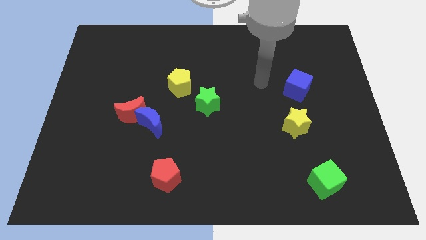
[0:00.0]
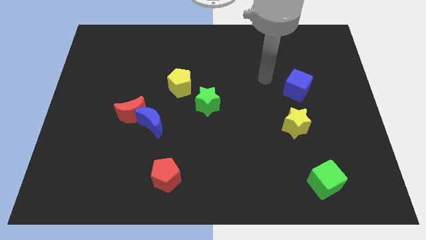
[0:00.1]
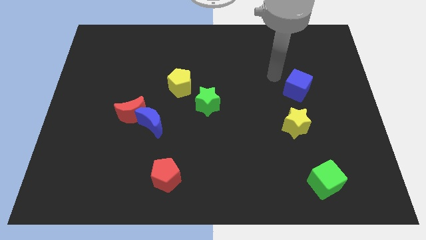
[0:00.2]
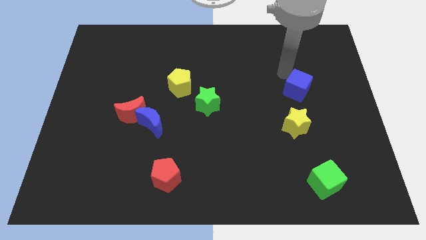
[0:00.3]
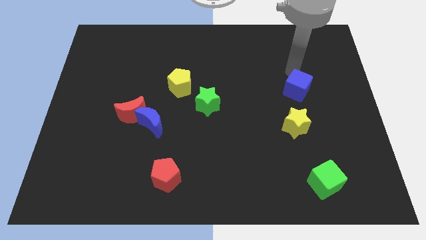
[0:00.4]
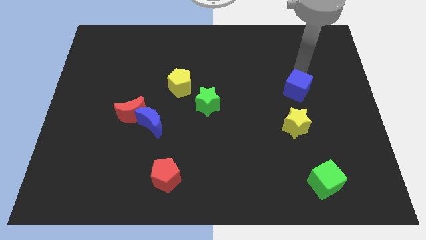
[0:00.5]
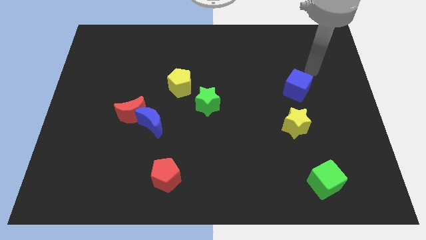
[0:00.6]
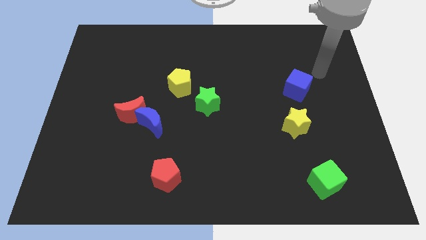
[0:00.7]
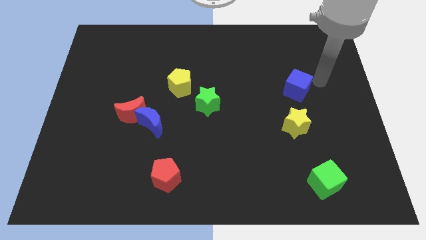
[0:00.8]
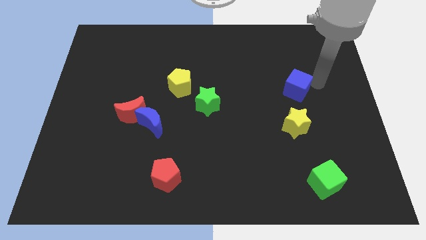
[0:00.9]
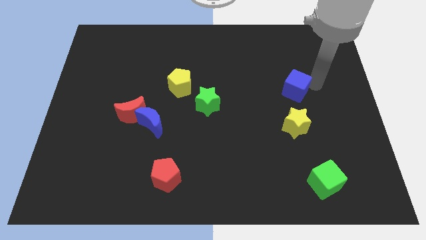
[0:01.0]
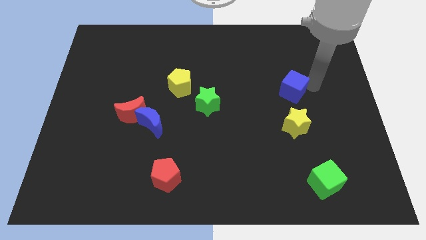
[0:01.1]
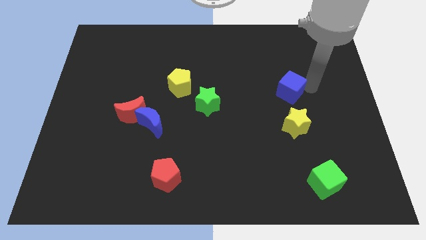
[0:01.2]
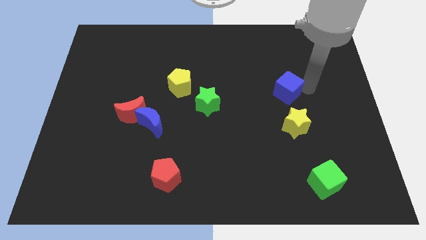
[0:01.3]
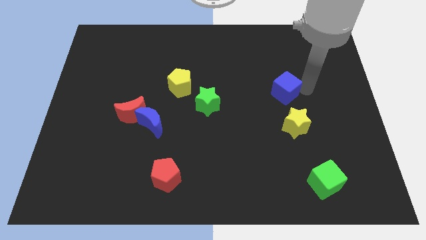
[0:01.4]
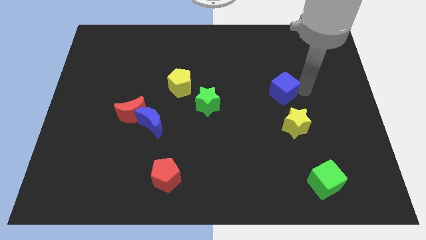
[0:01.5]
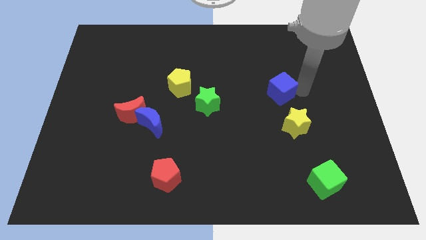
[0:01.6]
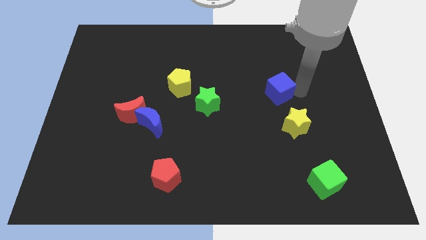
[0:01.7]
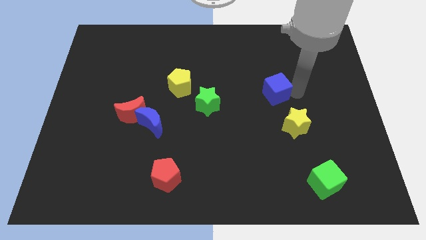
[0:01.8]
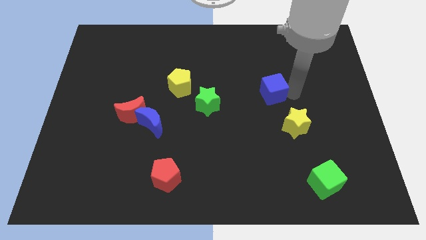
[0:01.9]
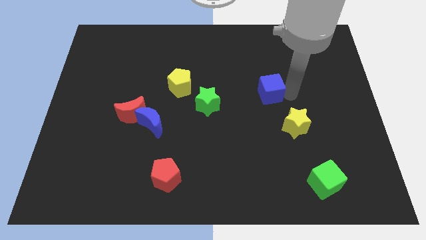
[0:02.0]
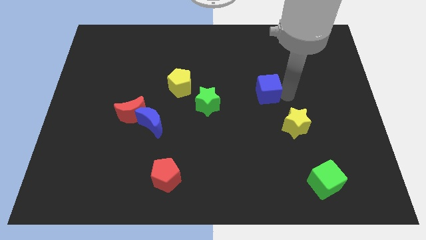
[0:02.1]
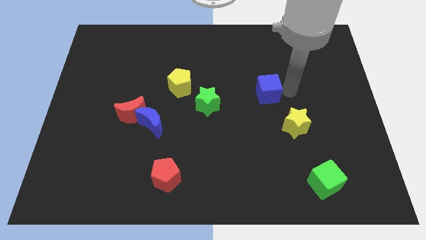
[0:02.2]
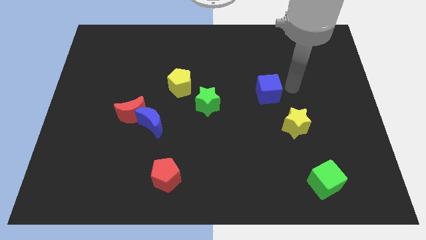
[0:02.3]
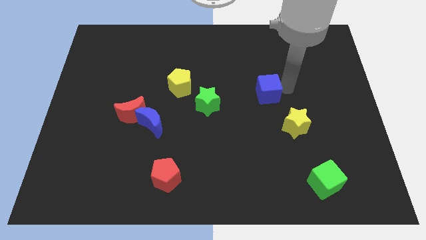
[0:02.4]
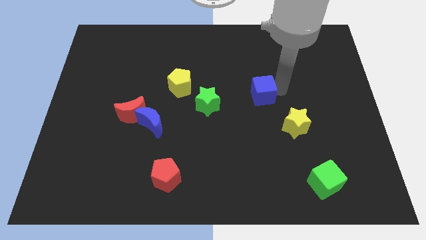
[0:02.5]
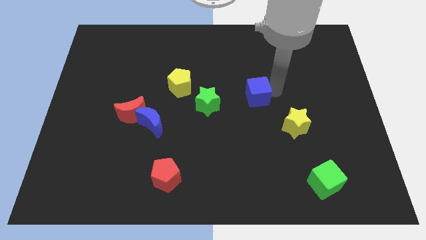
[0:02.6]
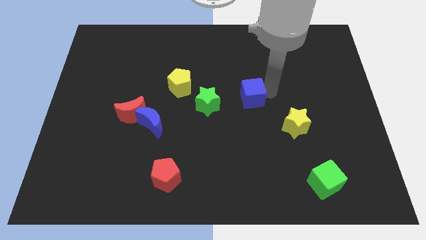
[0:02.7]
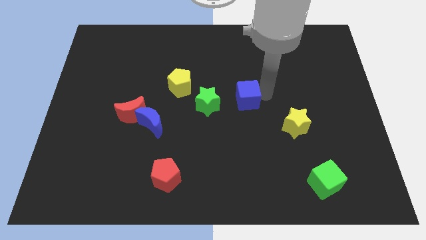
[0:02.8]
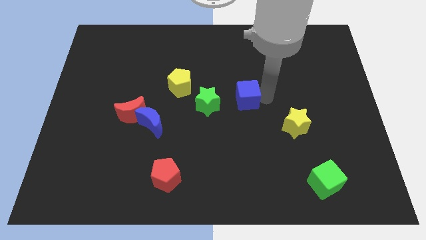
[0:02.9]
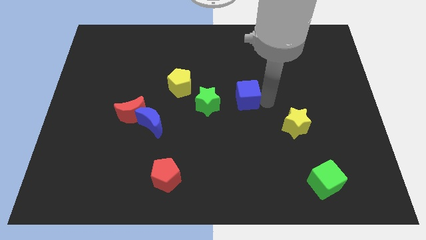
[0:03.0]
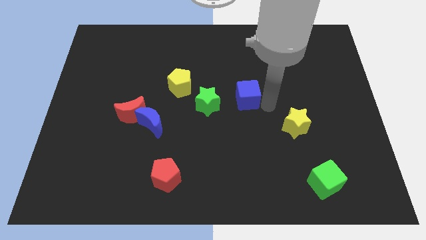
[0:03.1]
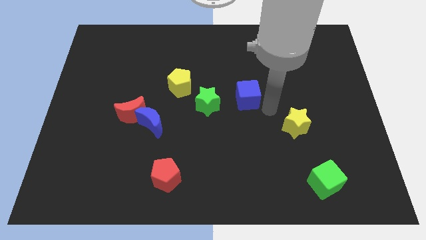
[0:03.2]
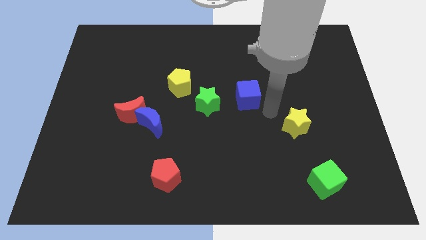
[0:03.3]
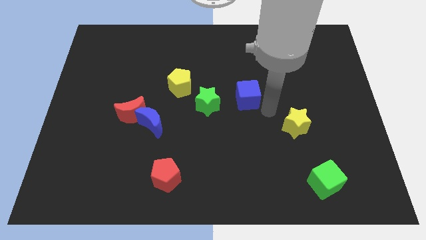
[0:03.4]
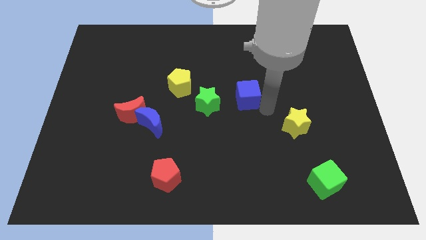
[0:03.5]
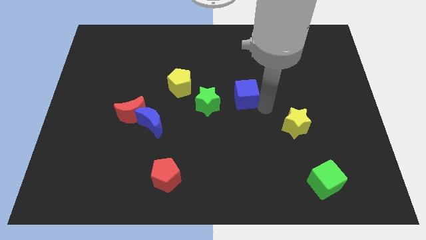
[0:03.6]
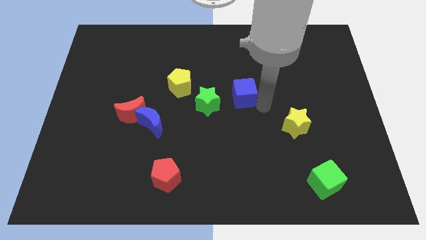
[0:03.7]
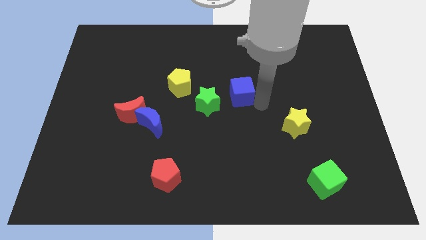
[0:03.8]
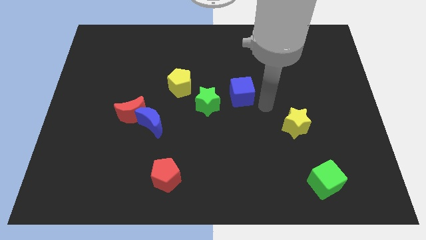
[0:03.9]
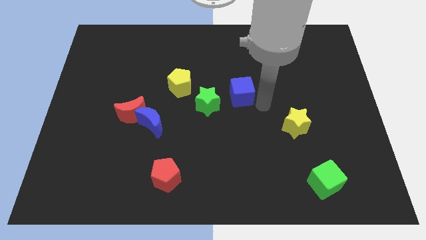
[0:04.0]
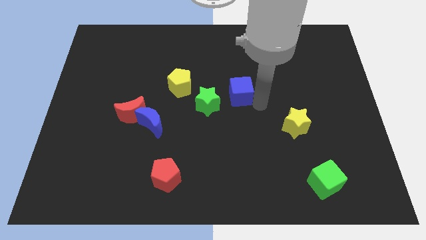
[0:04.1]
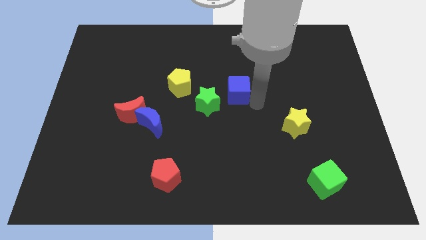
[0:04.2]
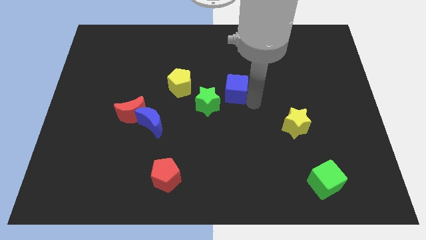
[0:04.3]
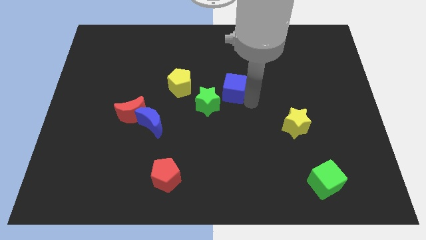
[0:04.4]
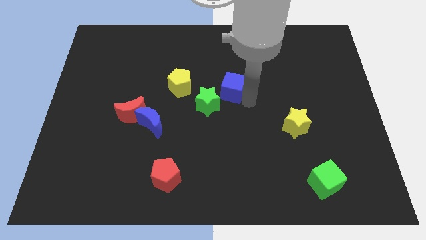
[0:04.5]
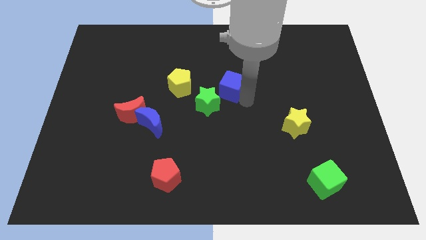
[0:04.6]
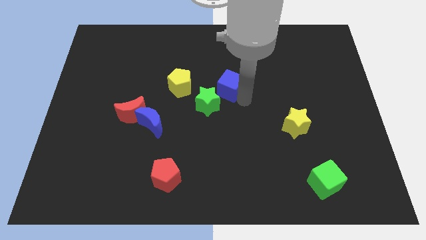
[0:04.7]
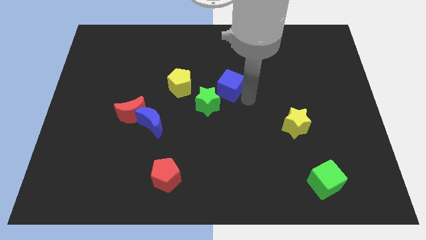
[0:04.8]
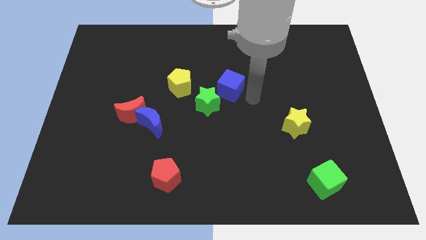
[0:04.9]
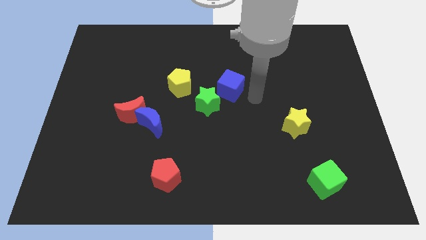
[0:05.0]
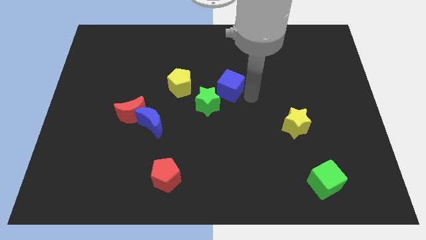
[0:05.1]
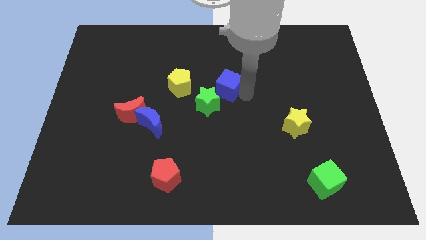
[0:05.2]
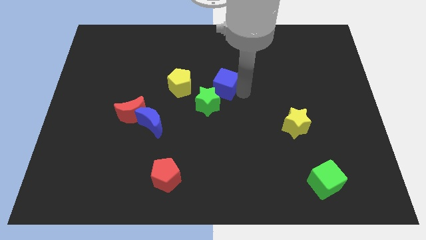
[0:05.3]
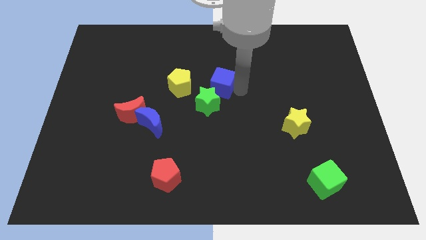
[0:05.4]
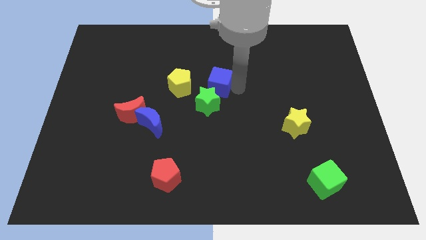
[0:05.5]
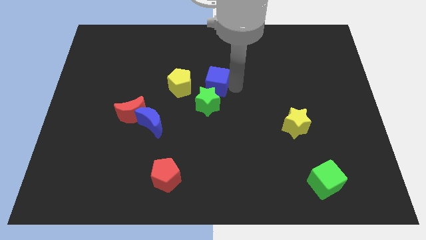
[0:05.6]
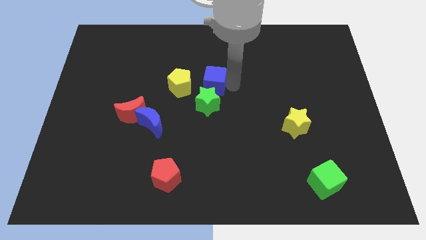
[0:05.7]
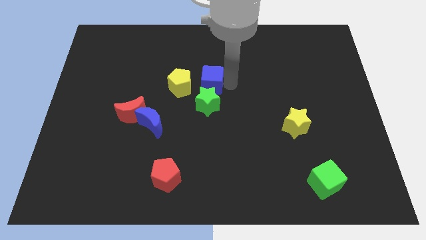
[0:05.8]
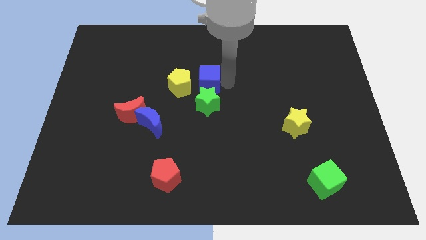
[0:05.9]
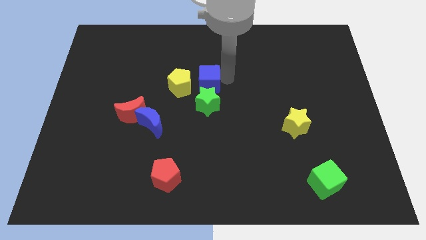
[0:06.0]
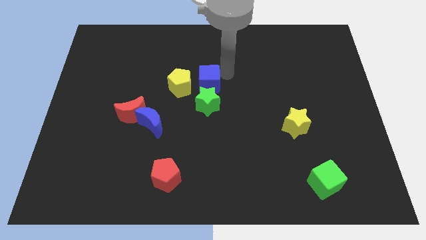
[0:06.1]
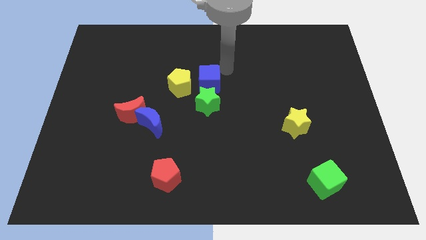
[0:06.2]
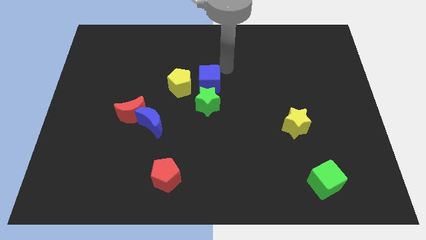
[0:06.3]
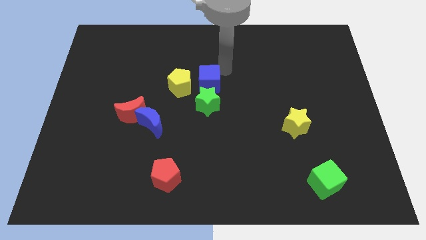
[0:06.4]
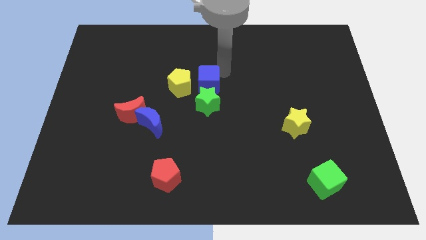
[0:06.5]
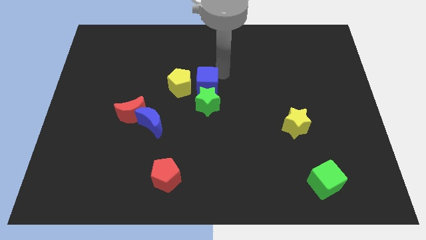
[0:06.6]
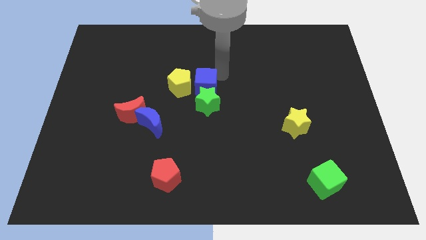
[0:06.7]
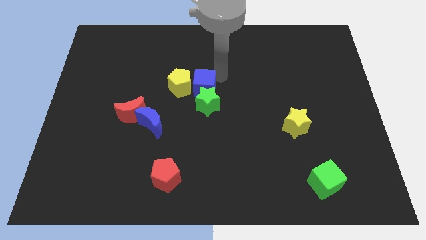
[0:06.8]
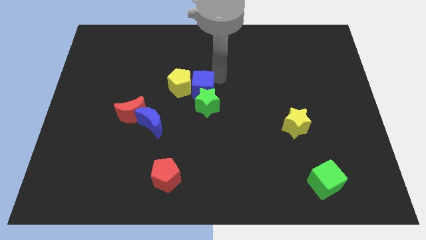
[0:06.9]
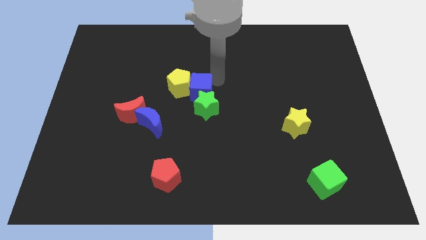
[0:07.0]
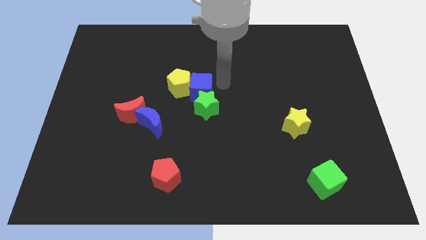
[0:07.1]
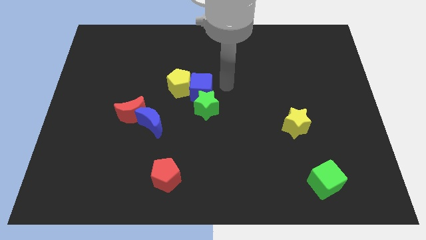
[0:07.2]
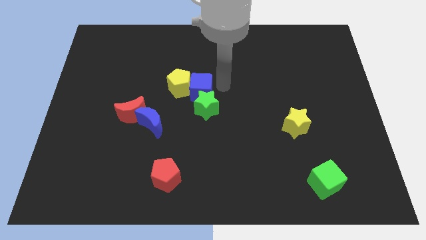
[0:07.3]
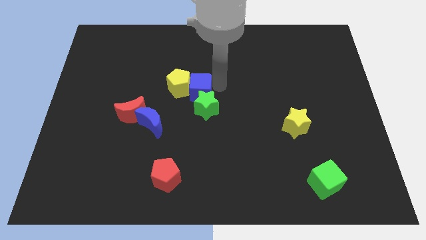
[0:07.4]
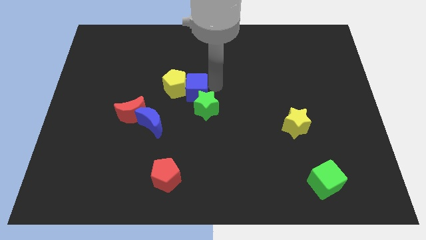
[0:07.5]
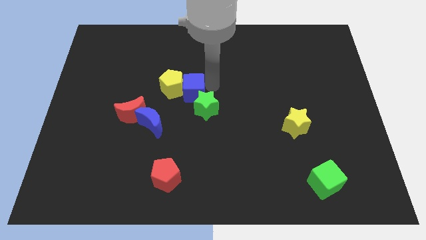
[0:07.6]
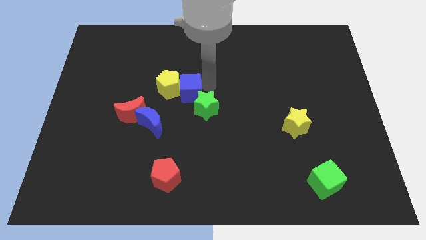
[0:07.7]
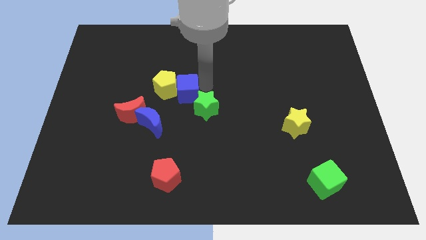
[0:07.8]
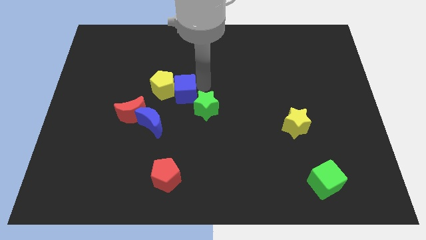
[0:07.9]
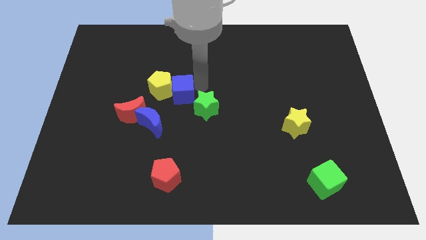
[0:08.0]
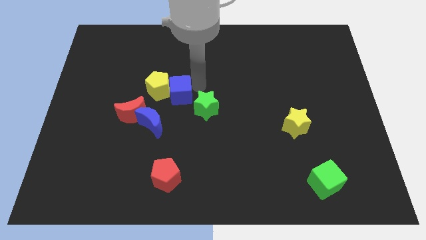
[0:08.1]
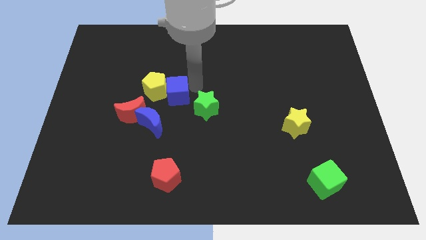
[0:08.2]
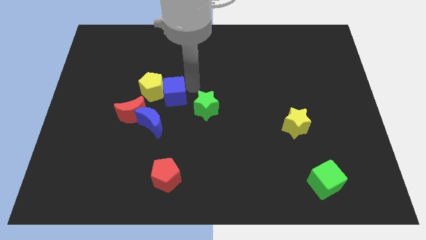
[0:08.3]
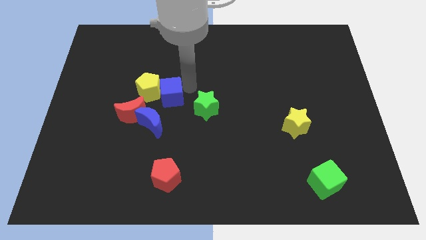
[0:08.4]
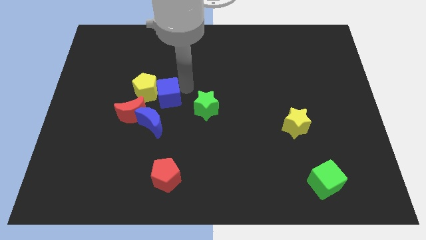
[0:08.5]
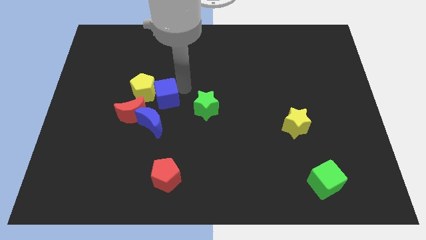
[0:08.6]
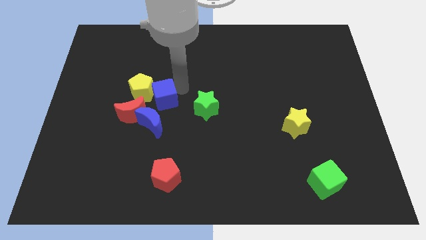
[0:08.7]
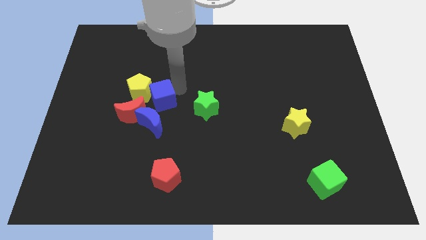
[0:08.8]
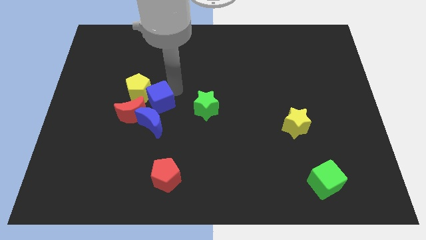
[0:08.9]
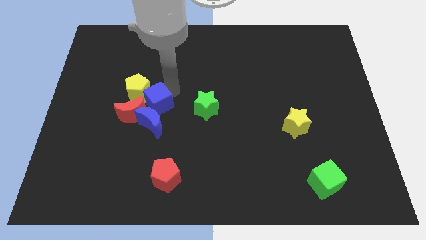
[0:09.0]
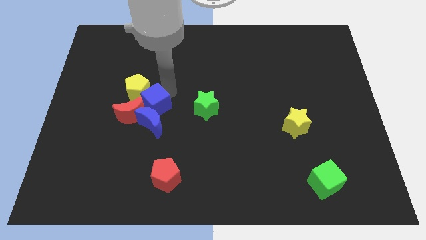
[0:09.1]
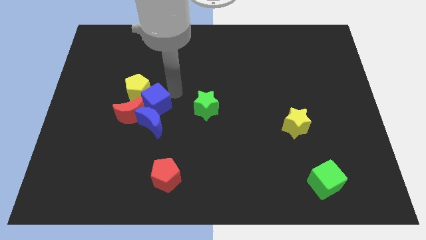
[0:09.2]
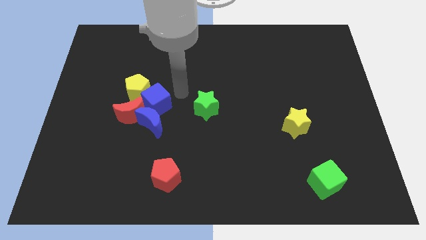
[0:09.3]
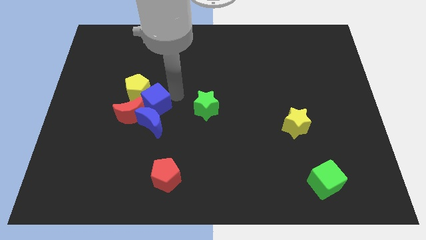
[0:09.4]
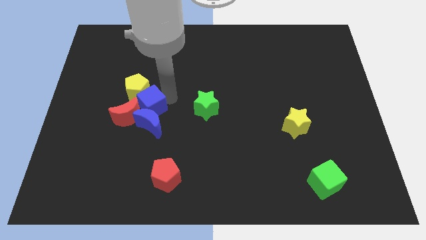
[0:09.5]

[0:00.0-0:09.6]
slide the blue cube towards the red moon
